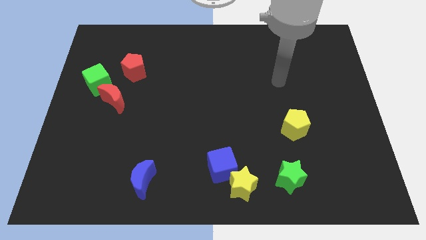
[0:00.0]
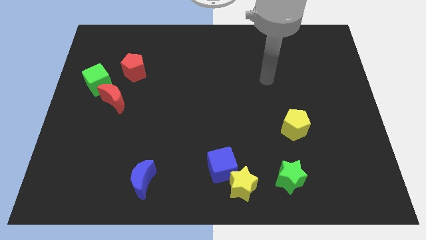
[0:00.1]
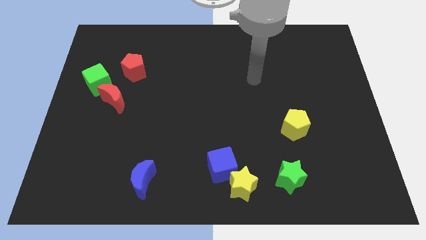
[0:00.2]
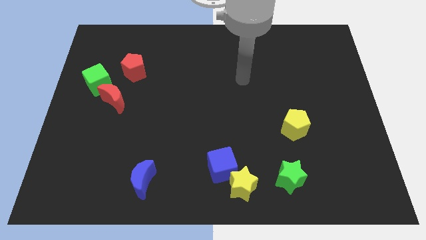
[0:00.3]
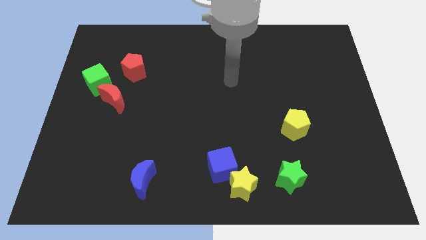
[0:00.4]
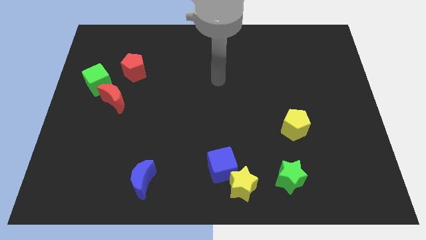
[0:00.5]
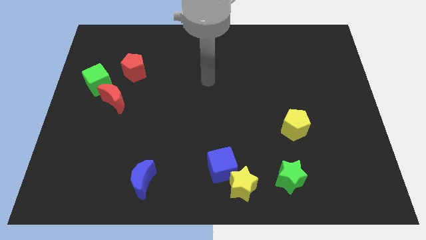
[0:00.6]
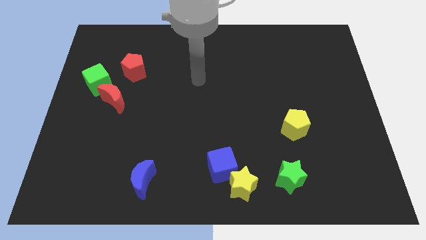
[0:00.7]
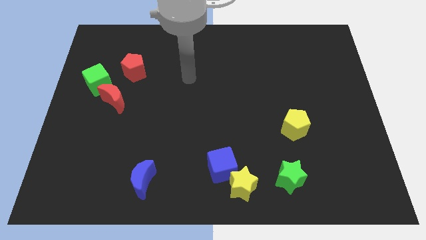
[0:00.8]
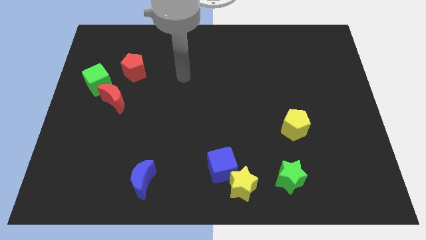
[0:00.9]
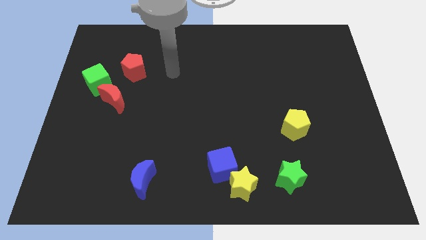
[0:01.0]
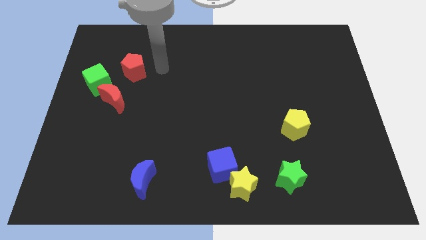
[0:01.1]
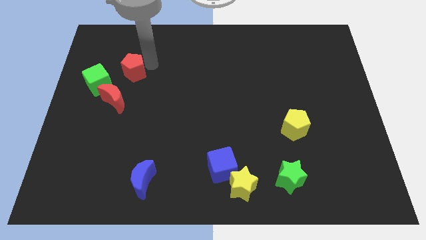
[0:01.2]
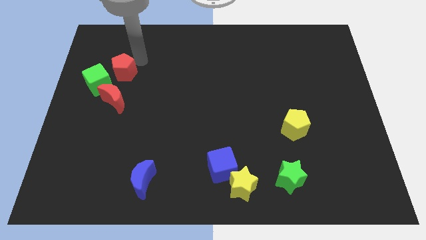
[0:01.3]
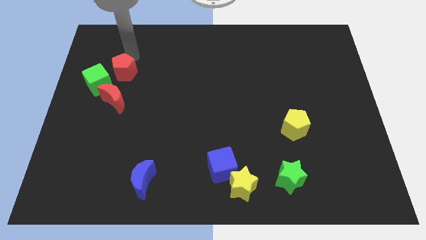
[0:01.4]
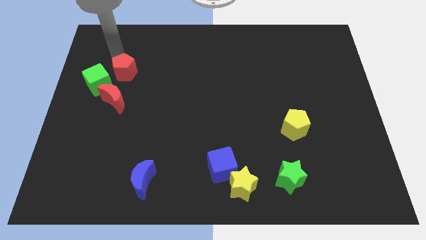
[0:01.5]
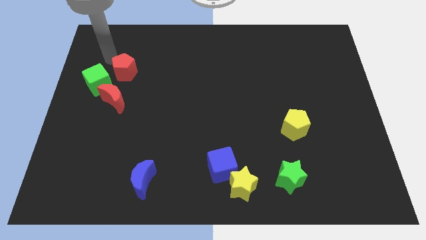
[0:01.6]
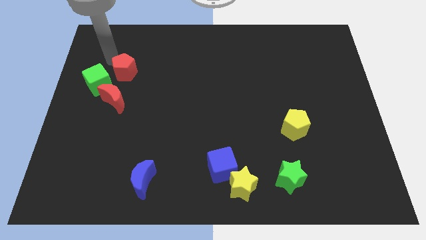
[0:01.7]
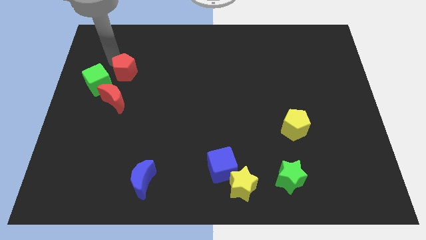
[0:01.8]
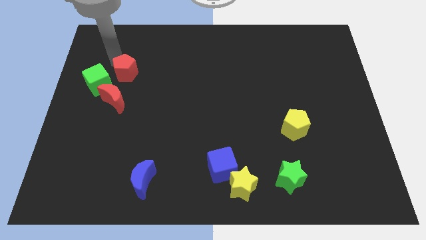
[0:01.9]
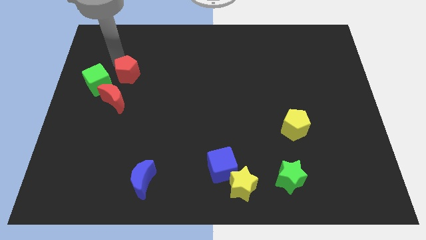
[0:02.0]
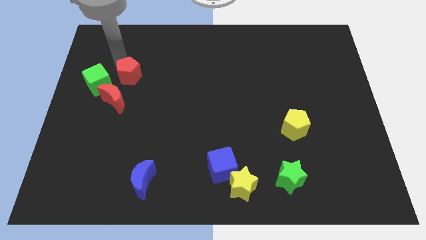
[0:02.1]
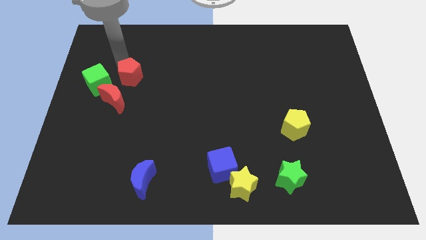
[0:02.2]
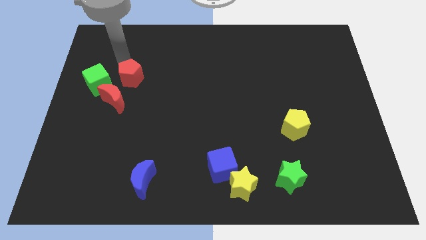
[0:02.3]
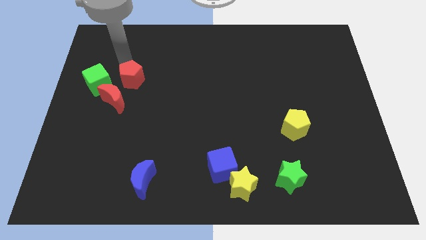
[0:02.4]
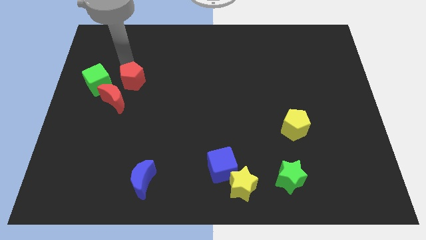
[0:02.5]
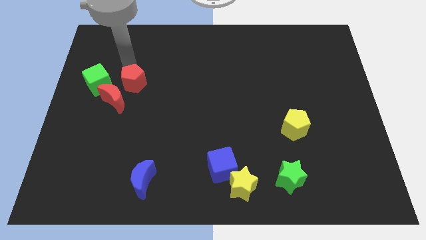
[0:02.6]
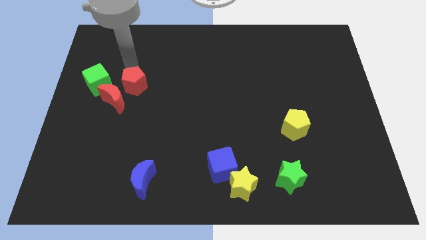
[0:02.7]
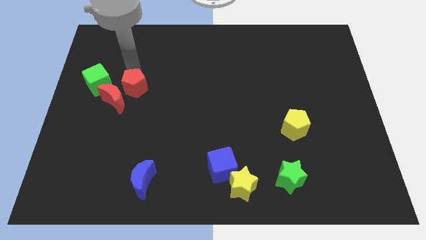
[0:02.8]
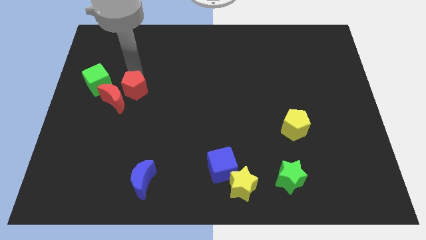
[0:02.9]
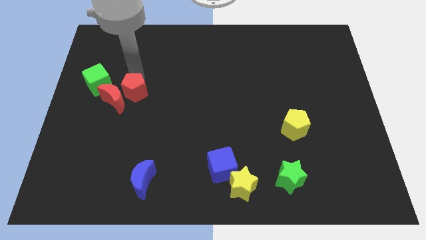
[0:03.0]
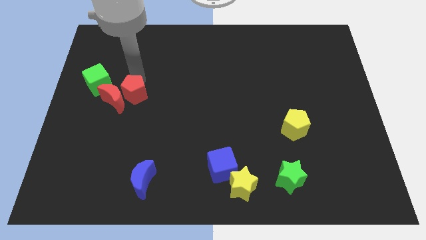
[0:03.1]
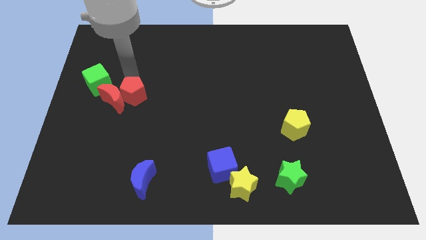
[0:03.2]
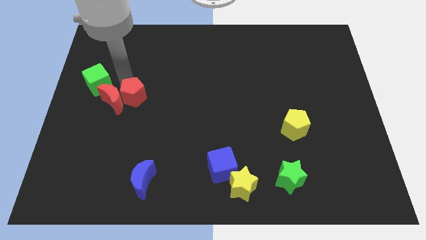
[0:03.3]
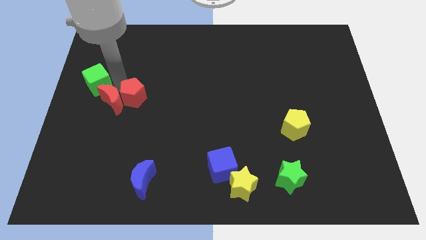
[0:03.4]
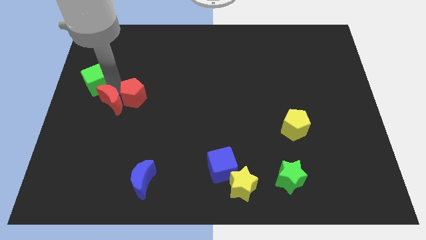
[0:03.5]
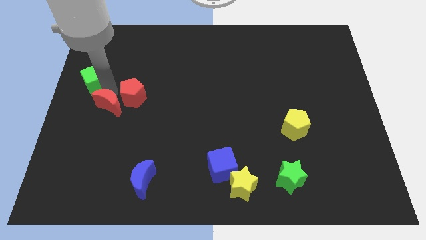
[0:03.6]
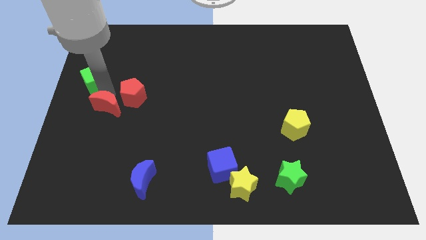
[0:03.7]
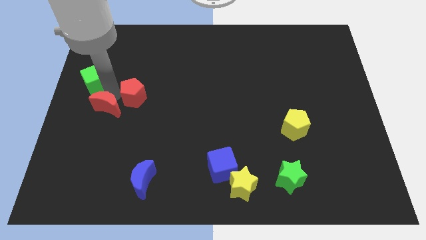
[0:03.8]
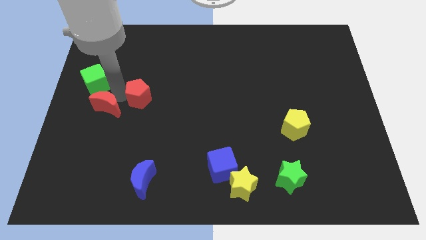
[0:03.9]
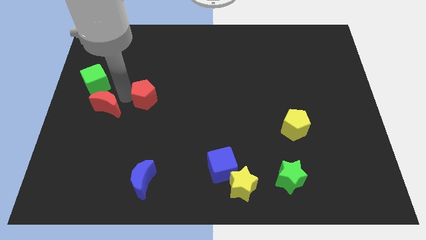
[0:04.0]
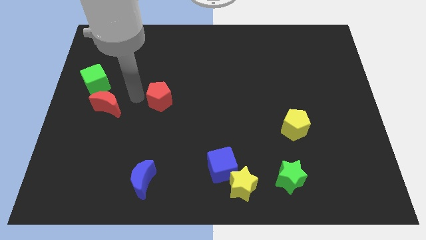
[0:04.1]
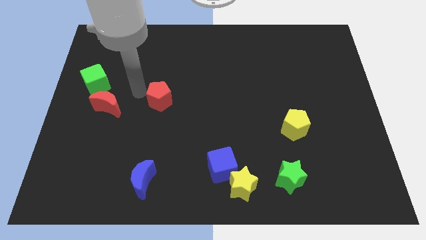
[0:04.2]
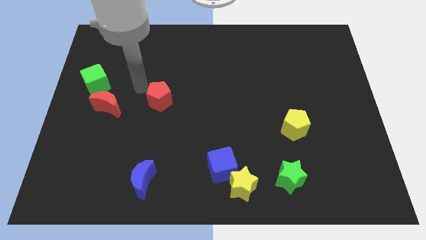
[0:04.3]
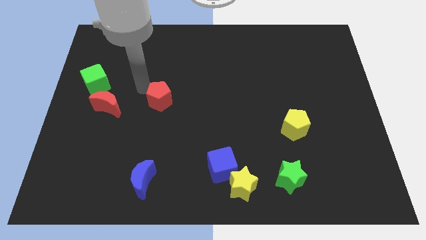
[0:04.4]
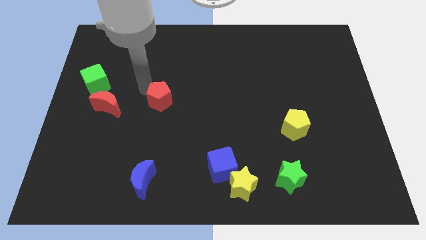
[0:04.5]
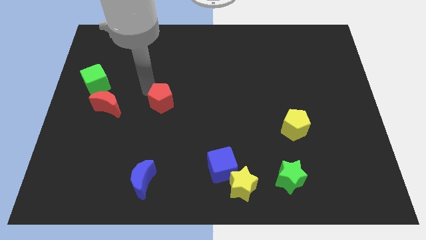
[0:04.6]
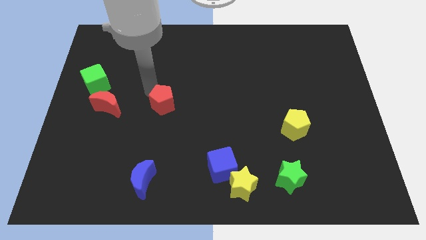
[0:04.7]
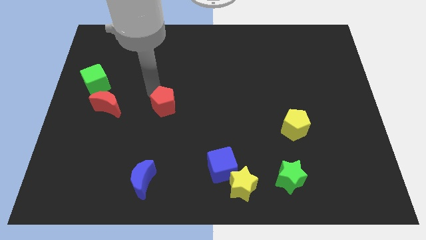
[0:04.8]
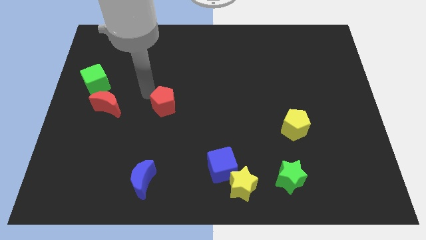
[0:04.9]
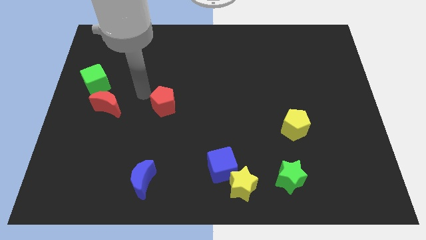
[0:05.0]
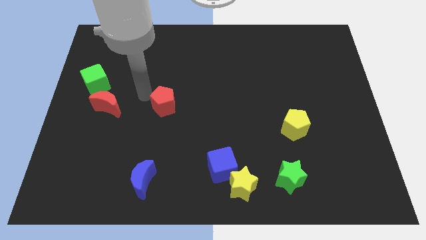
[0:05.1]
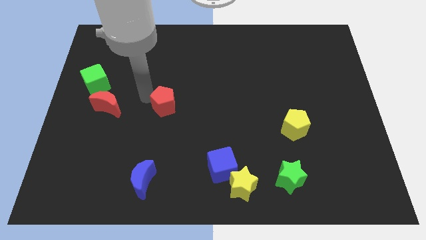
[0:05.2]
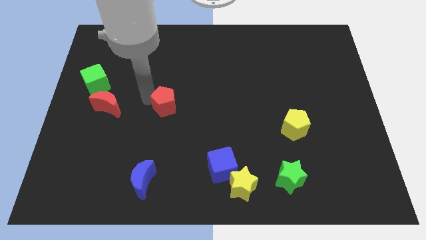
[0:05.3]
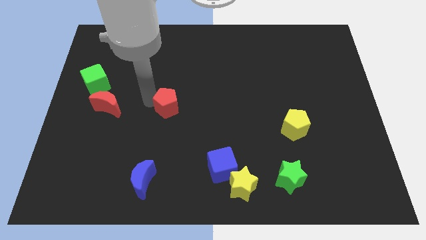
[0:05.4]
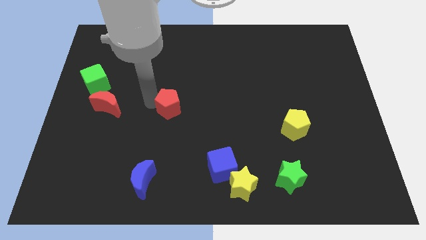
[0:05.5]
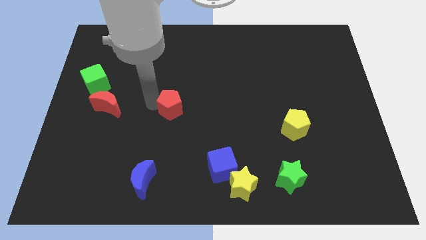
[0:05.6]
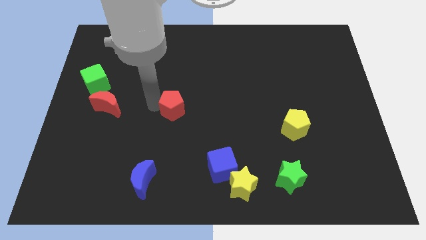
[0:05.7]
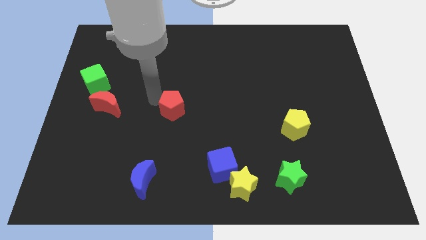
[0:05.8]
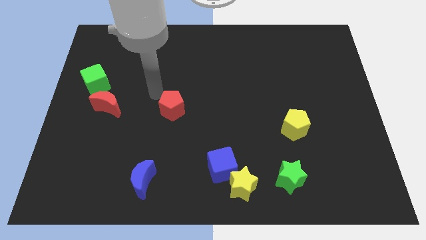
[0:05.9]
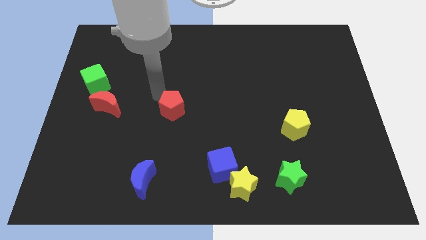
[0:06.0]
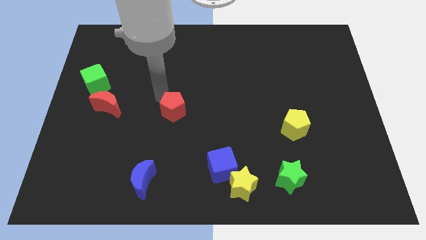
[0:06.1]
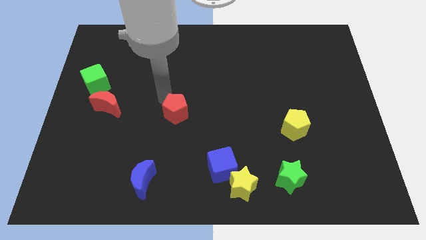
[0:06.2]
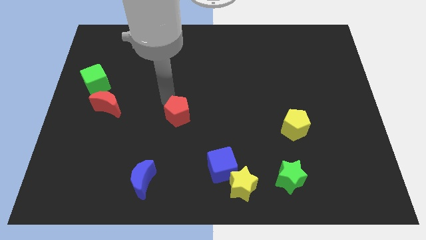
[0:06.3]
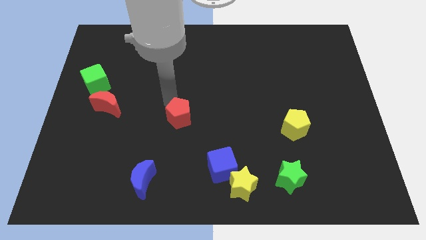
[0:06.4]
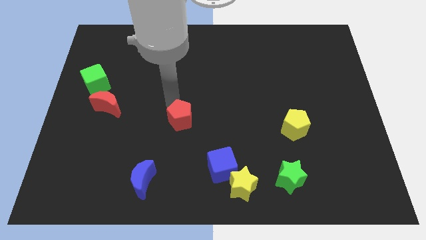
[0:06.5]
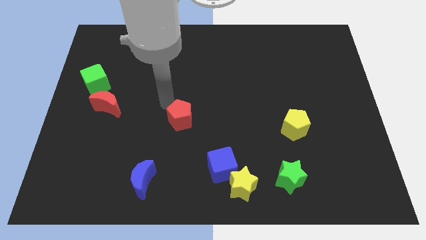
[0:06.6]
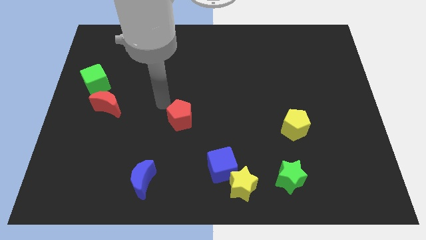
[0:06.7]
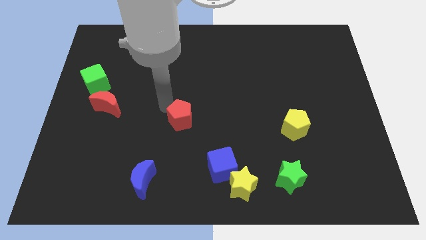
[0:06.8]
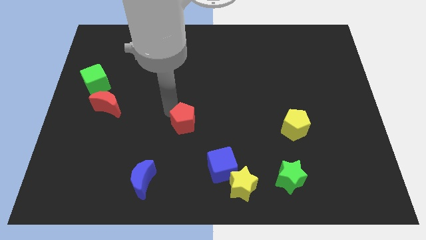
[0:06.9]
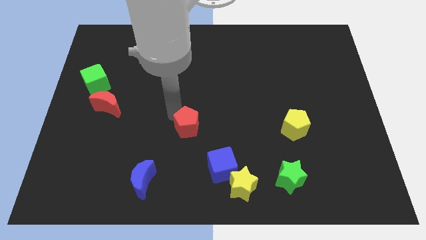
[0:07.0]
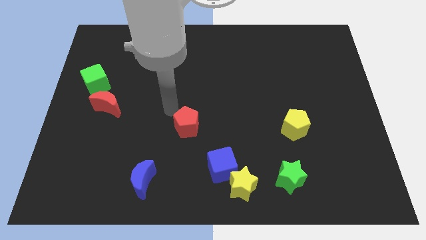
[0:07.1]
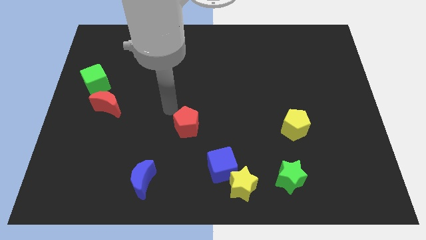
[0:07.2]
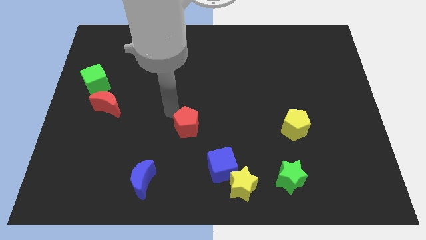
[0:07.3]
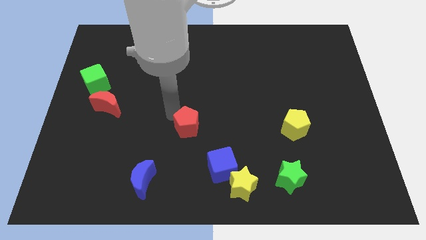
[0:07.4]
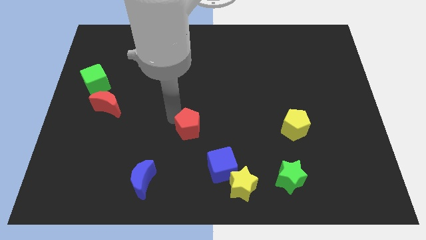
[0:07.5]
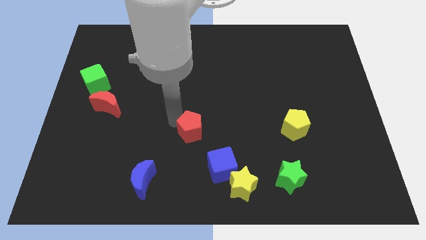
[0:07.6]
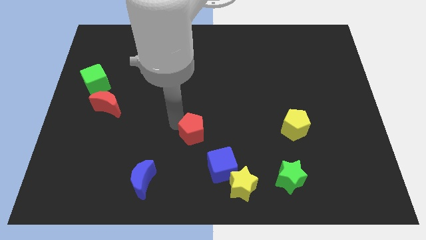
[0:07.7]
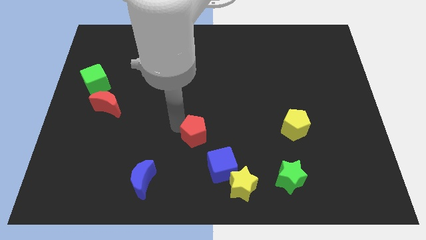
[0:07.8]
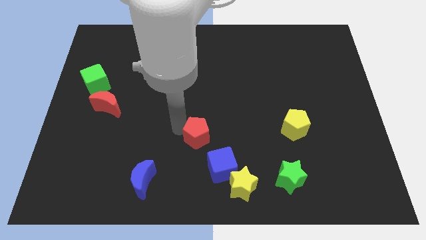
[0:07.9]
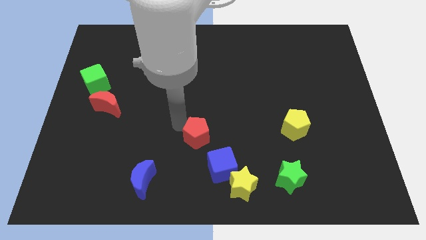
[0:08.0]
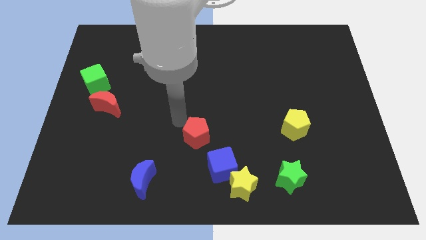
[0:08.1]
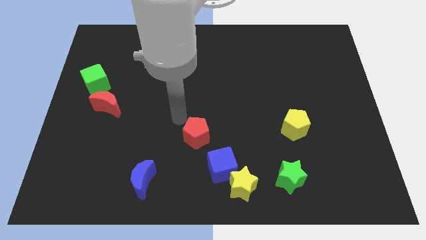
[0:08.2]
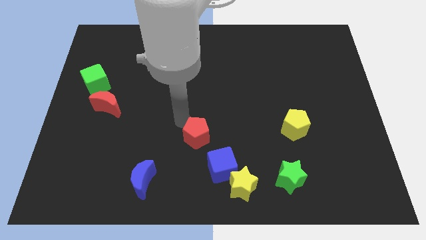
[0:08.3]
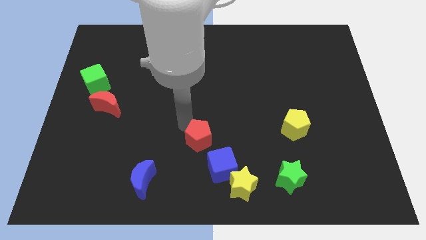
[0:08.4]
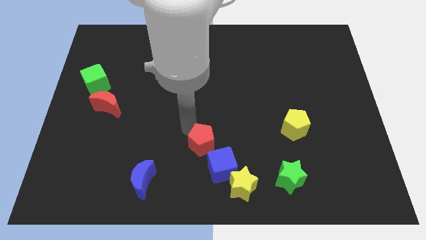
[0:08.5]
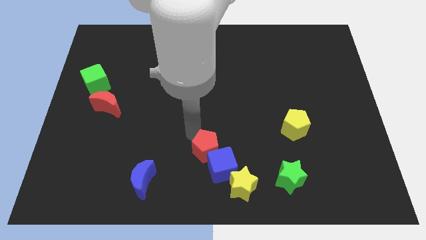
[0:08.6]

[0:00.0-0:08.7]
slide the red pentagon to the blue cube
